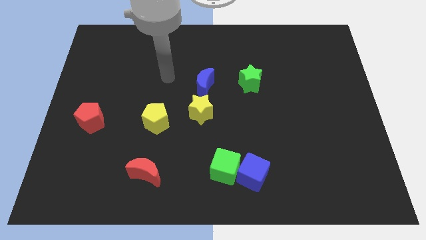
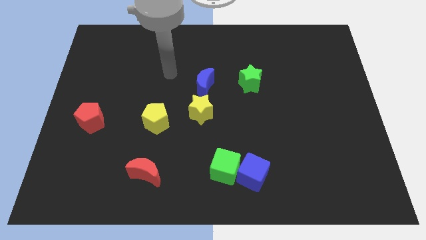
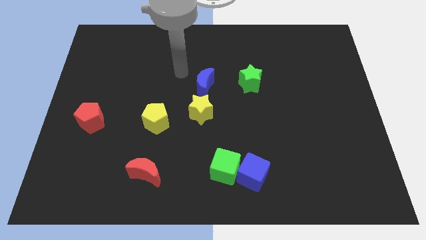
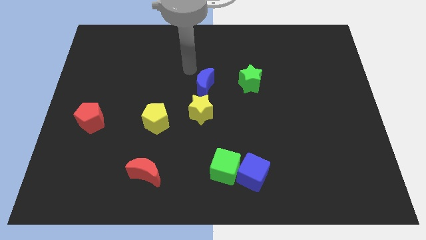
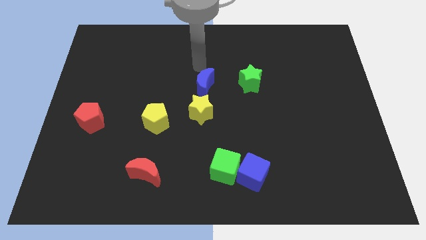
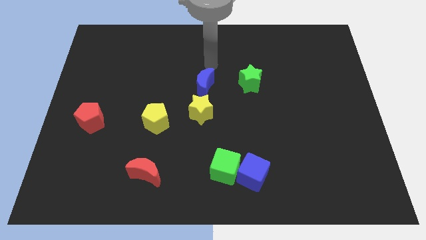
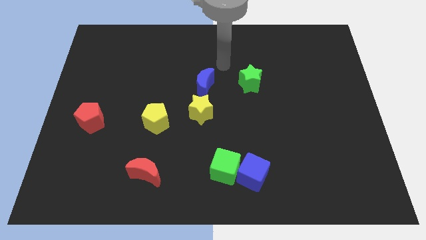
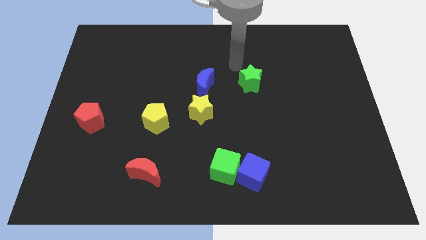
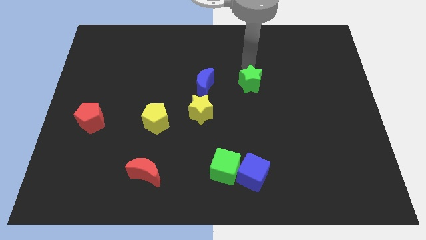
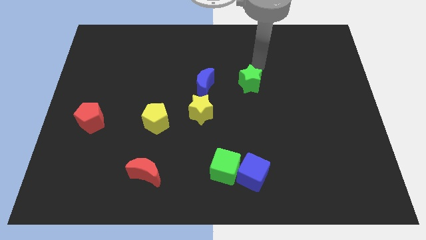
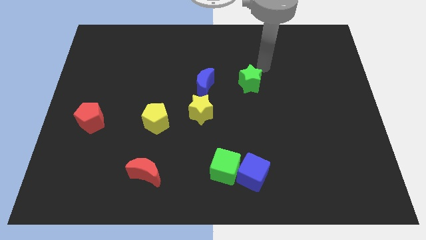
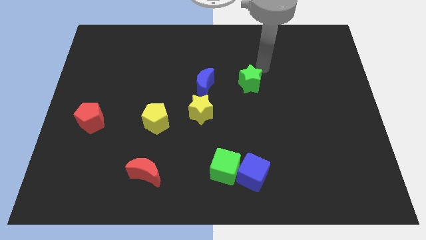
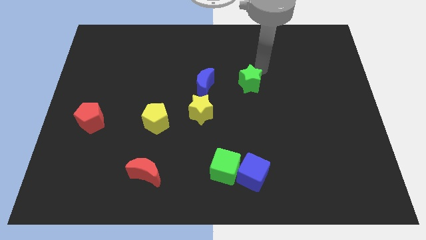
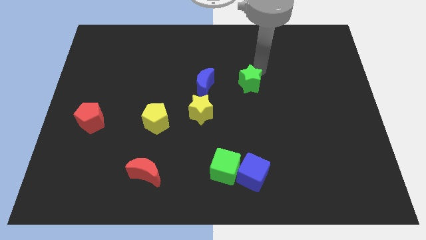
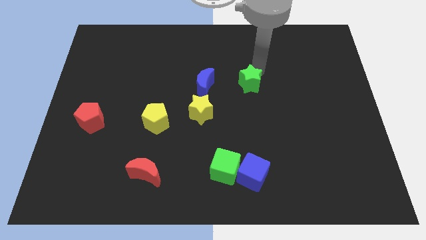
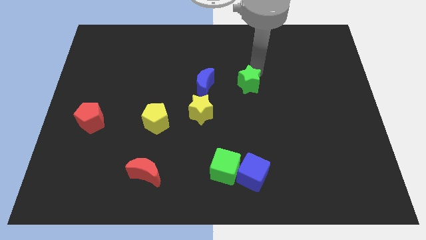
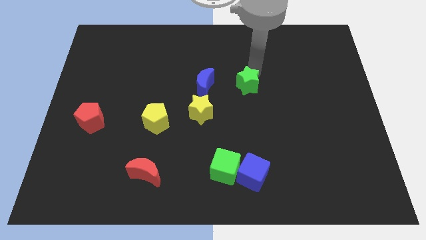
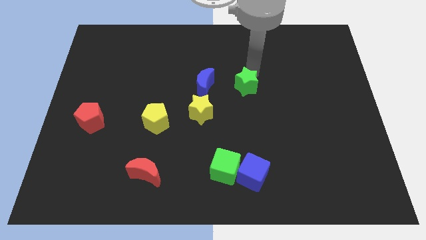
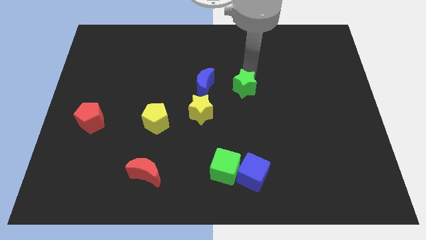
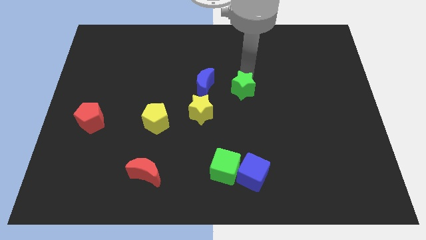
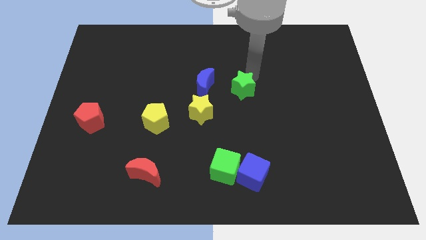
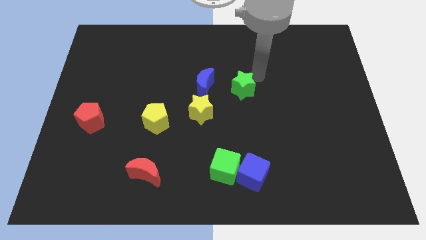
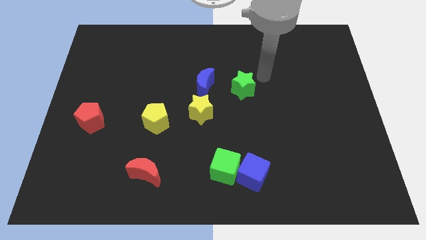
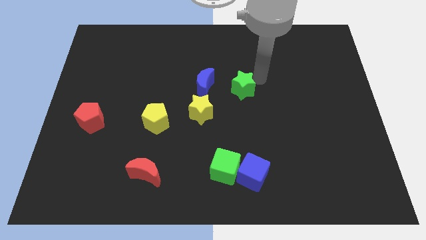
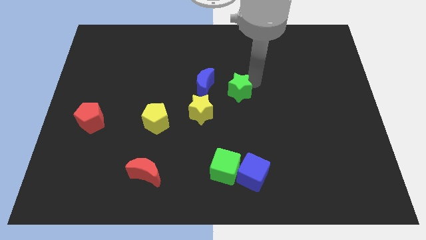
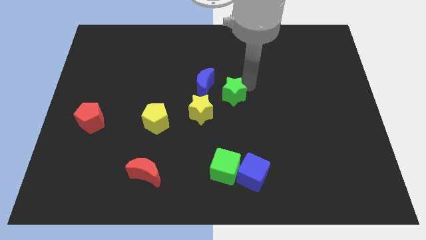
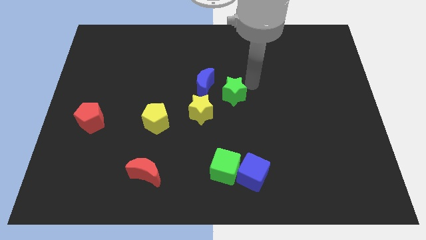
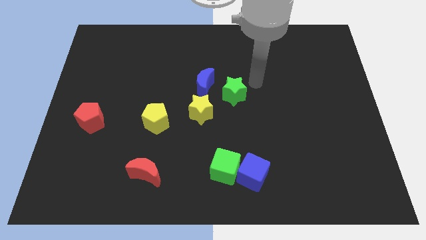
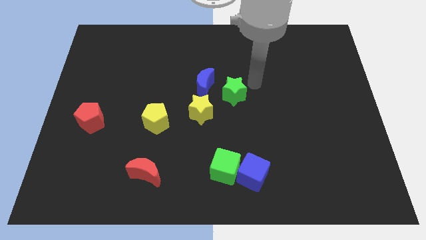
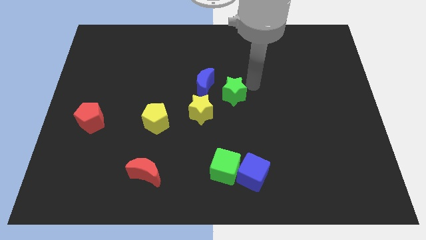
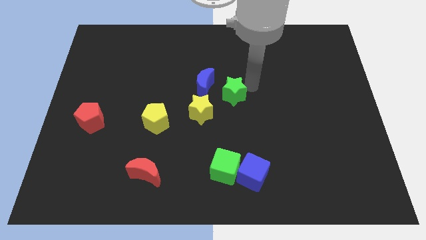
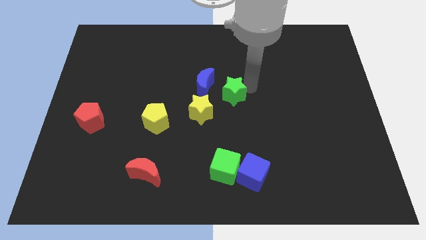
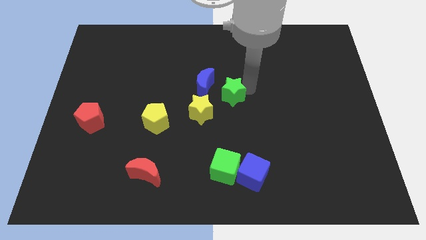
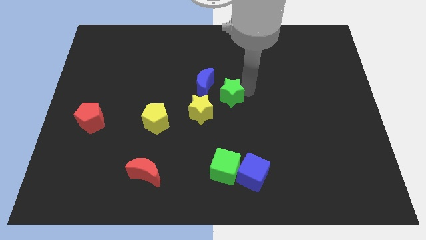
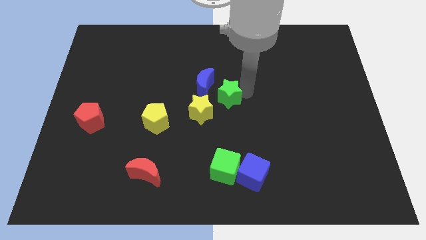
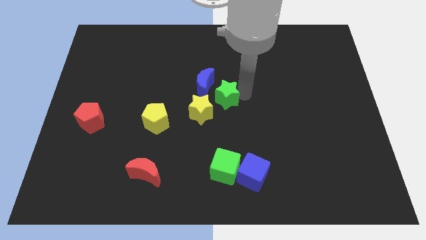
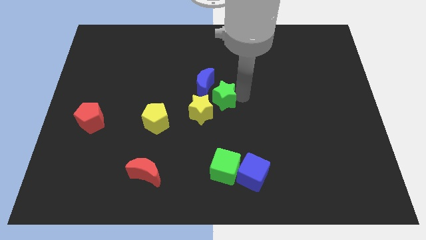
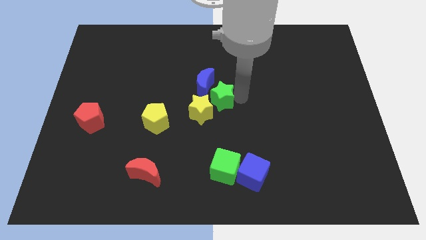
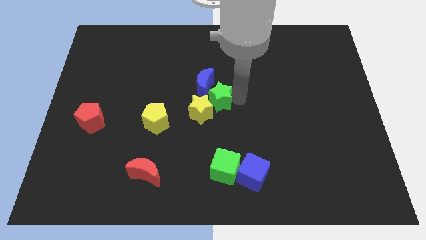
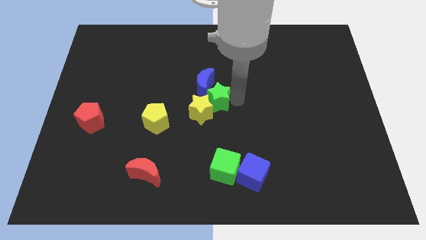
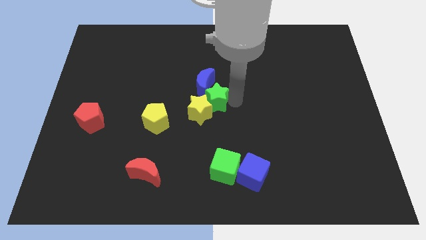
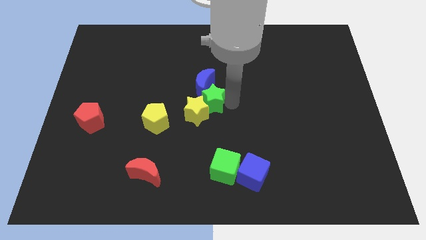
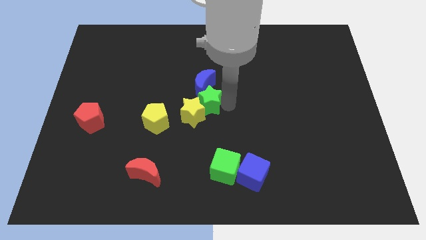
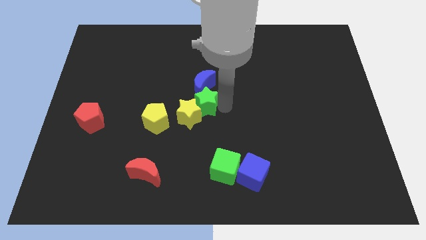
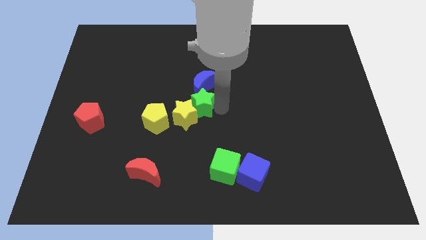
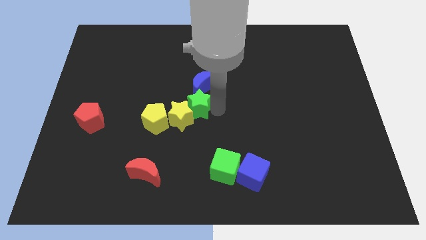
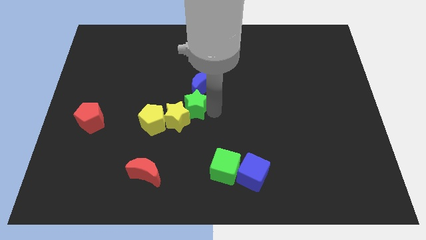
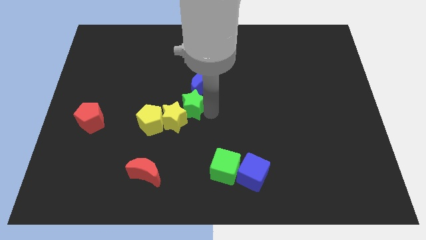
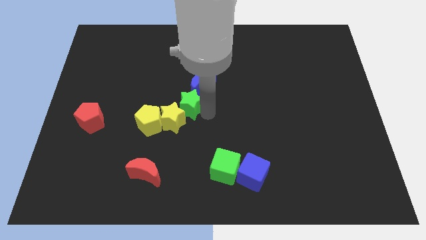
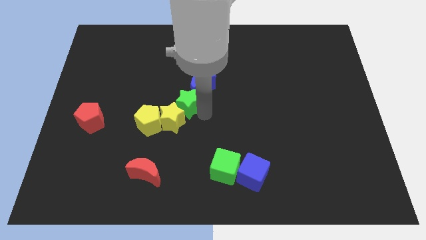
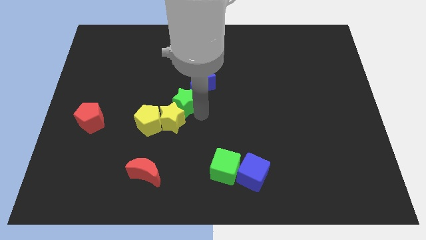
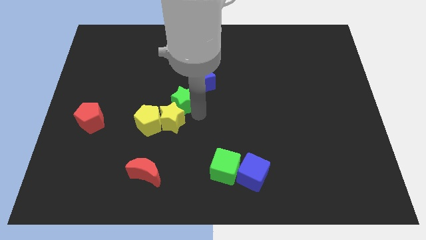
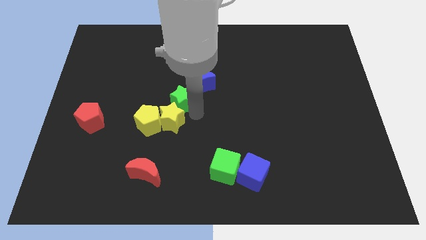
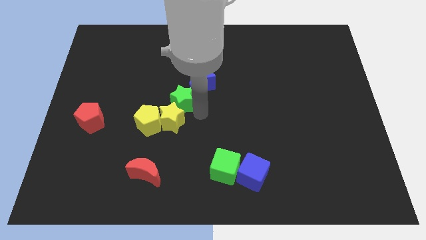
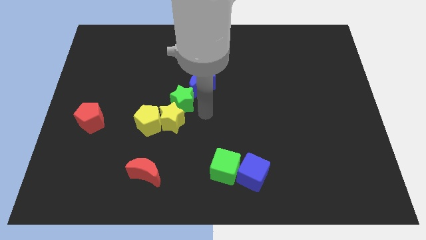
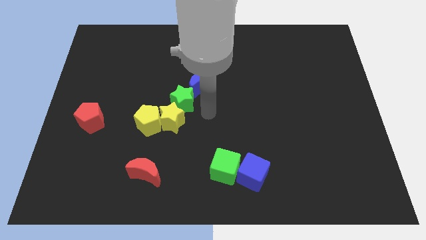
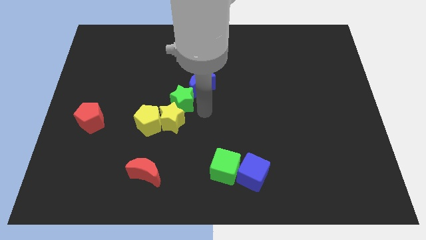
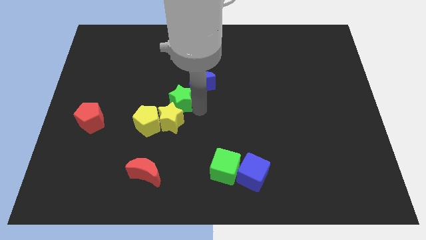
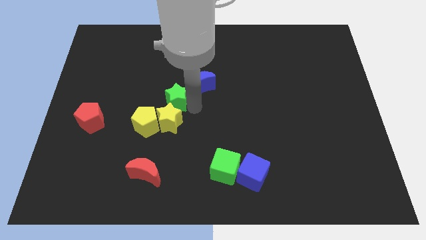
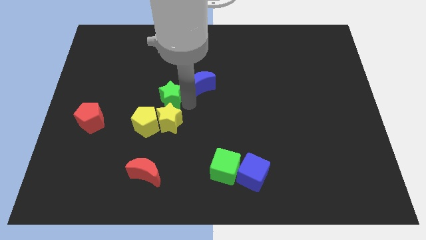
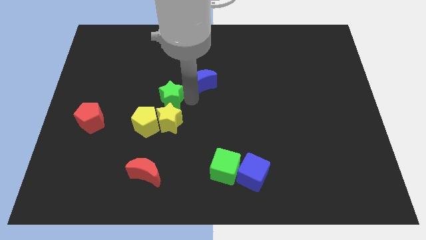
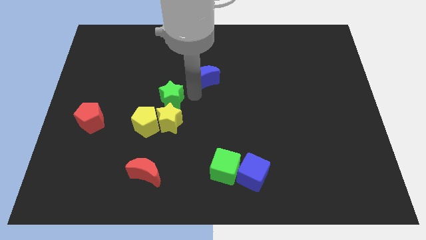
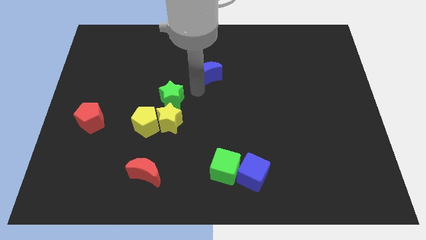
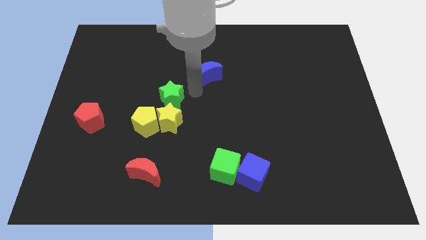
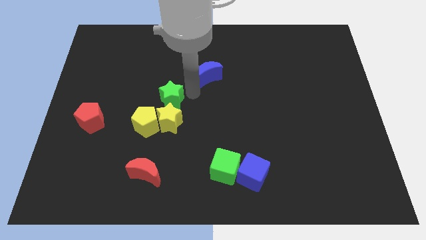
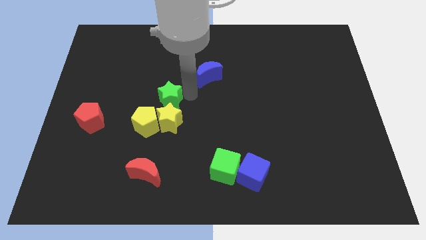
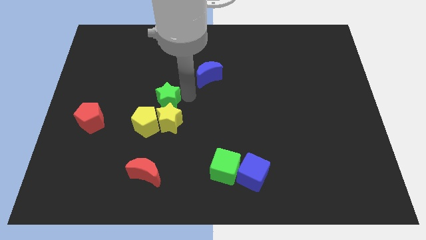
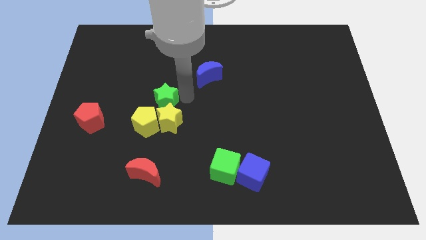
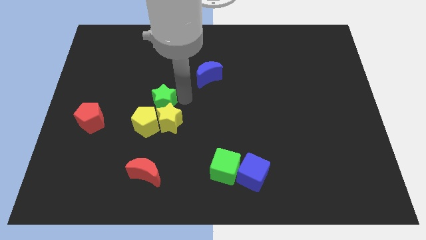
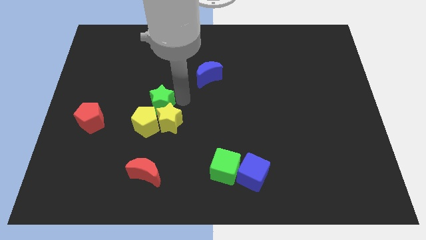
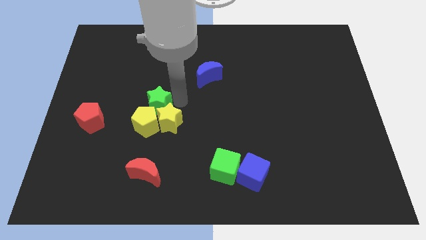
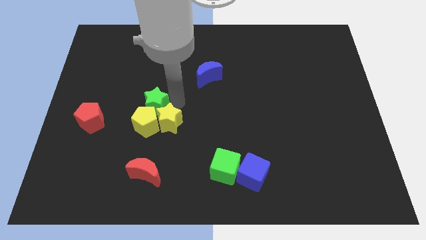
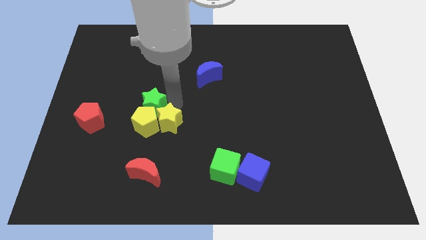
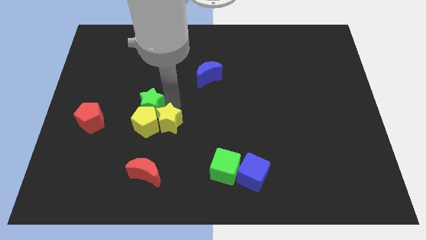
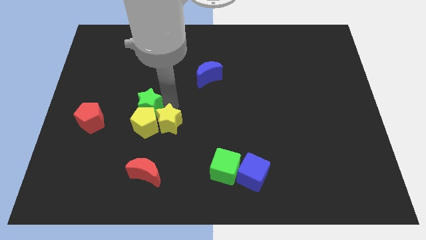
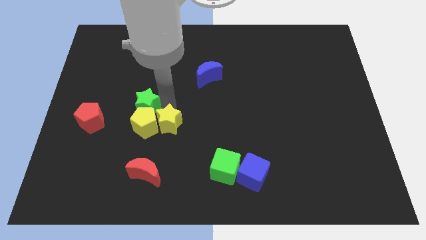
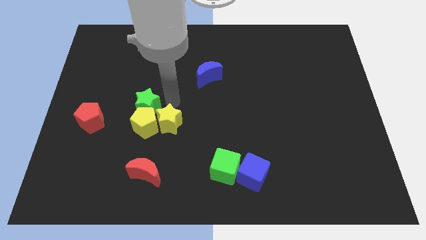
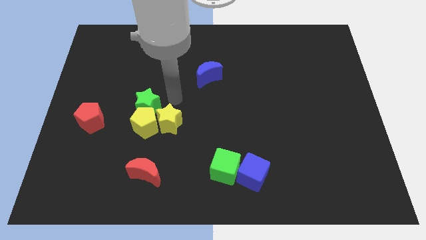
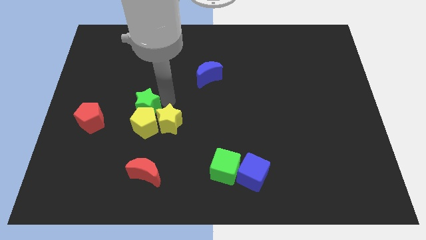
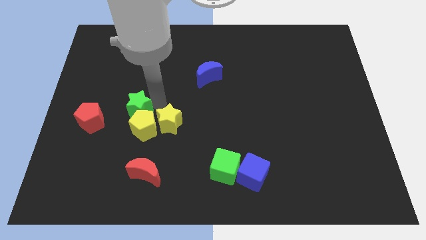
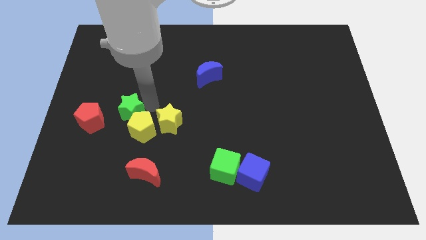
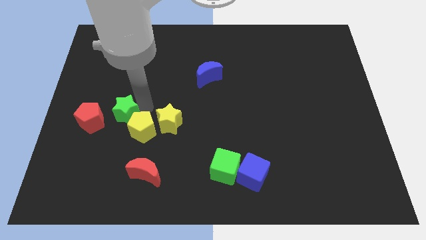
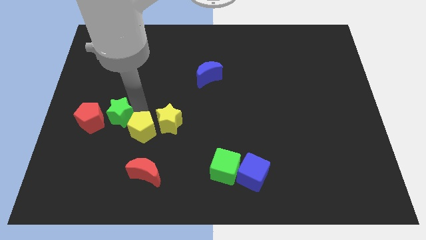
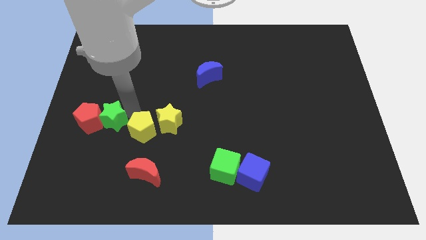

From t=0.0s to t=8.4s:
push the green star next to the red pentagon
